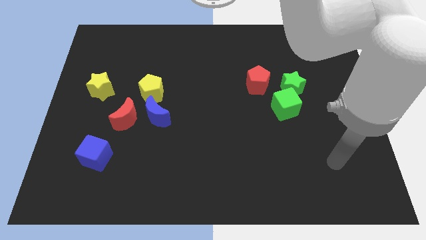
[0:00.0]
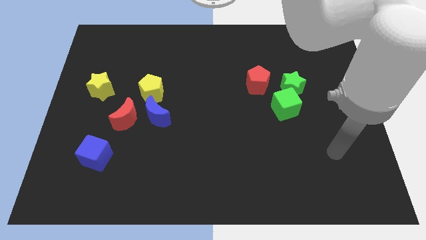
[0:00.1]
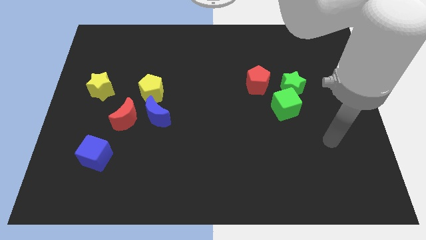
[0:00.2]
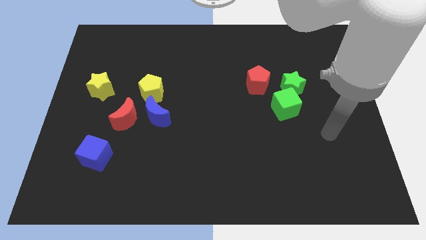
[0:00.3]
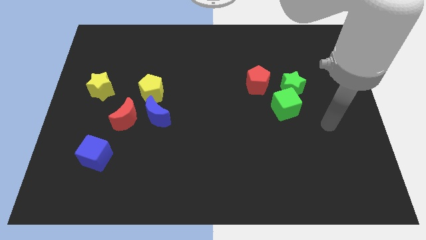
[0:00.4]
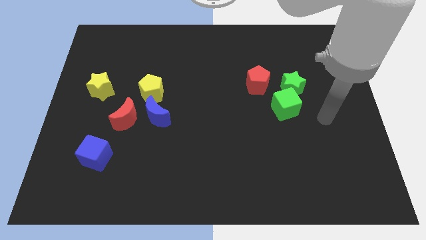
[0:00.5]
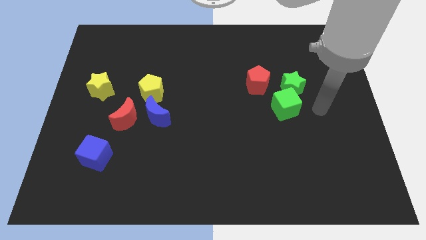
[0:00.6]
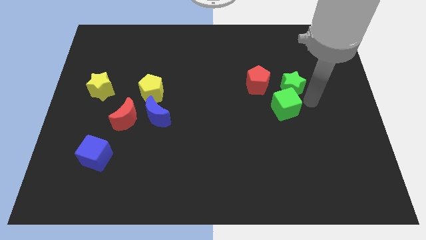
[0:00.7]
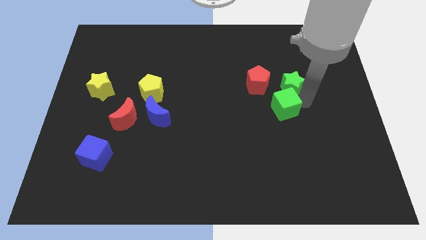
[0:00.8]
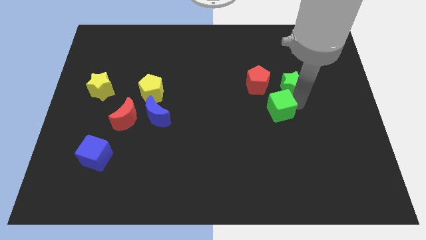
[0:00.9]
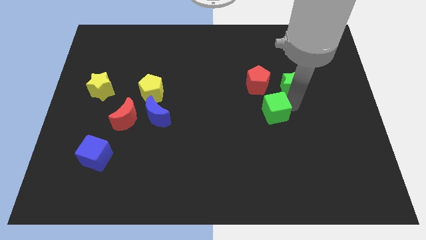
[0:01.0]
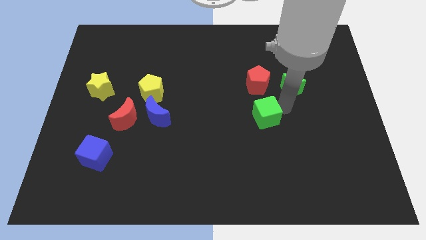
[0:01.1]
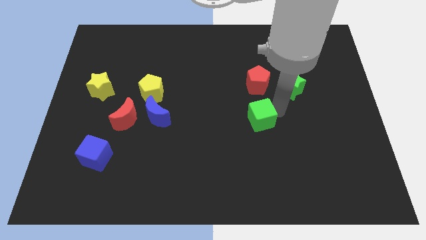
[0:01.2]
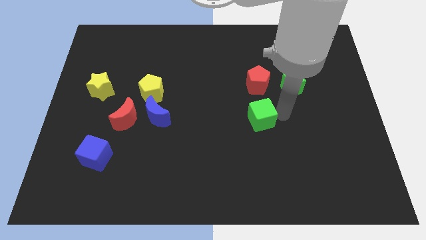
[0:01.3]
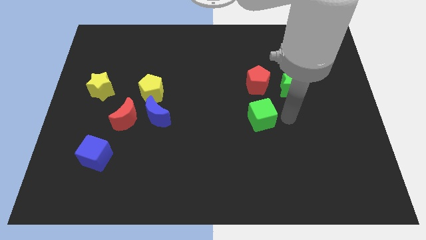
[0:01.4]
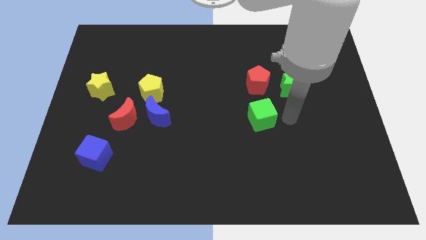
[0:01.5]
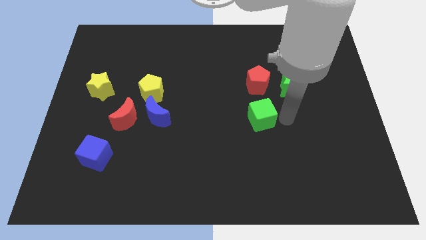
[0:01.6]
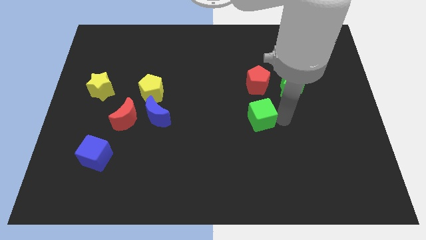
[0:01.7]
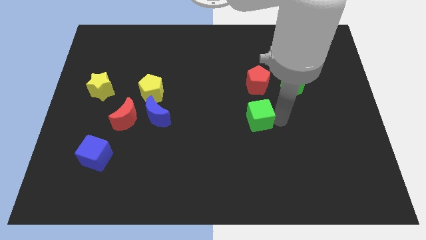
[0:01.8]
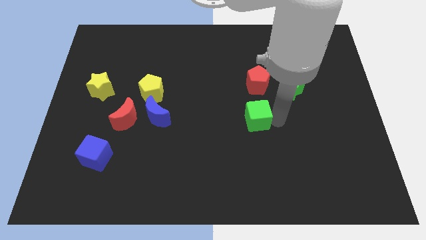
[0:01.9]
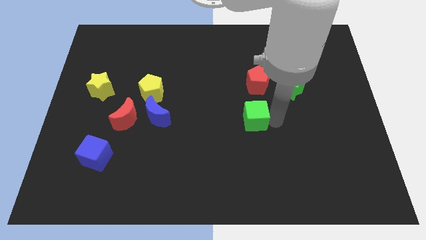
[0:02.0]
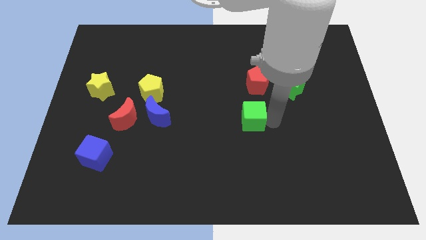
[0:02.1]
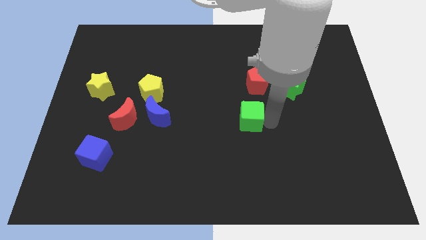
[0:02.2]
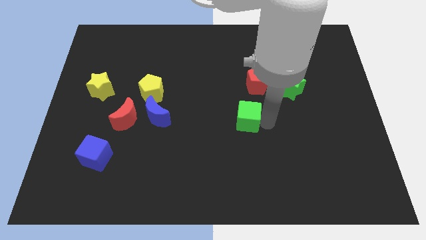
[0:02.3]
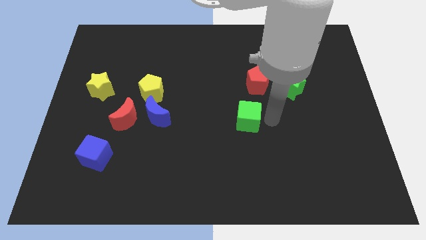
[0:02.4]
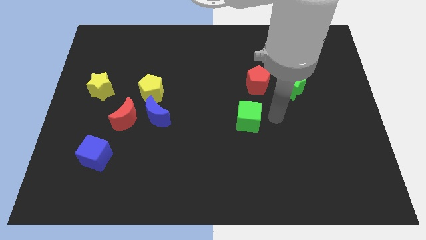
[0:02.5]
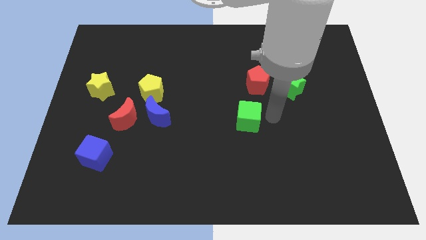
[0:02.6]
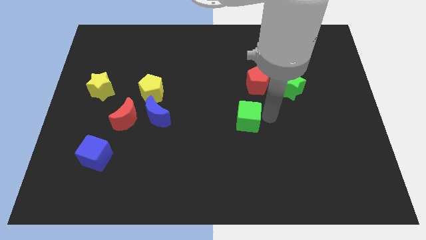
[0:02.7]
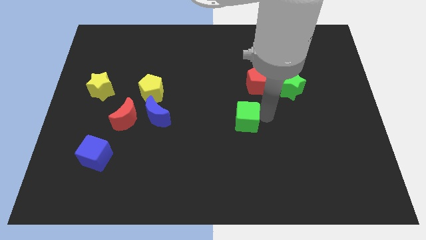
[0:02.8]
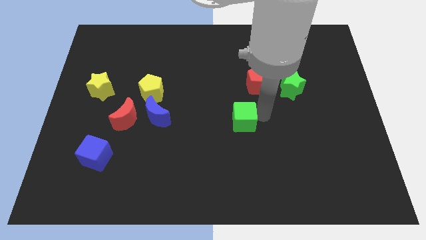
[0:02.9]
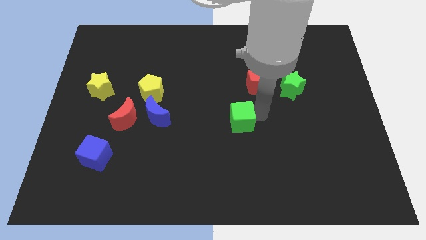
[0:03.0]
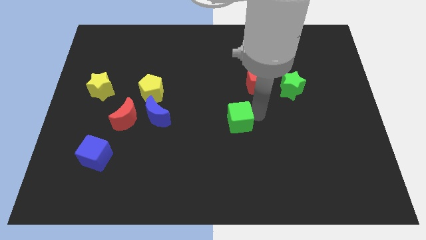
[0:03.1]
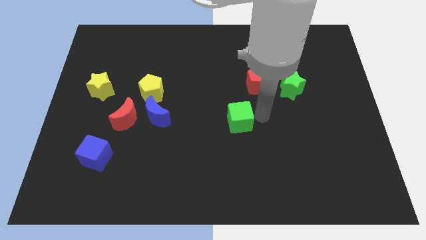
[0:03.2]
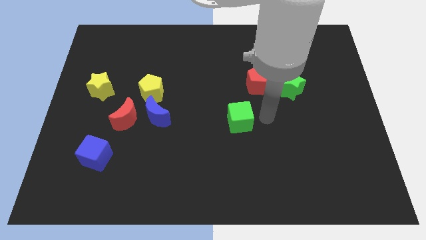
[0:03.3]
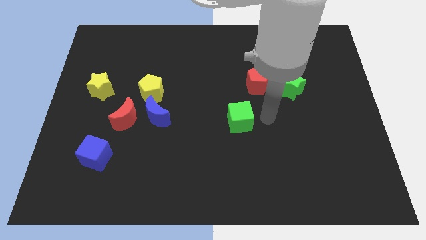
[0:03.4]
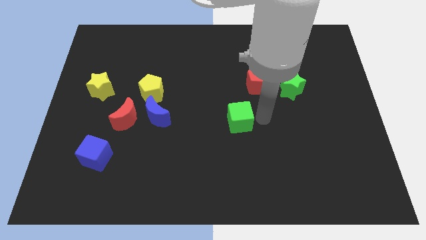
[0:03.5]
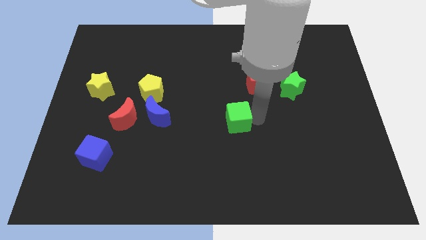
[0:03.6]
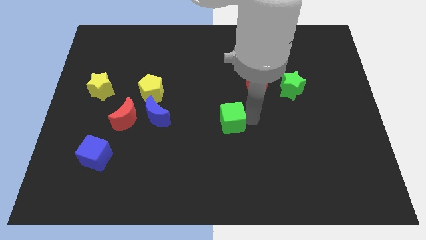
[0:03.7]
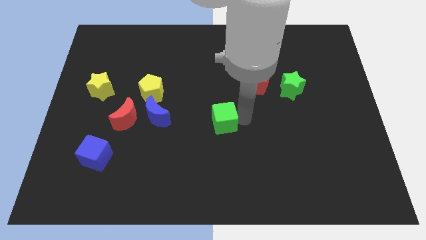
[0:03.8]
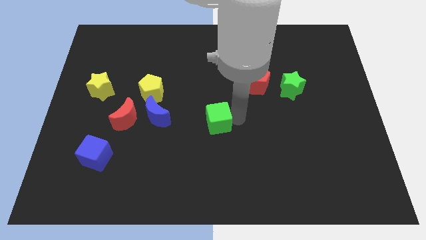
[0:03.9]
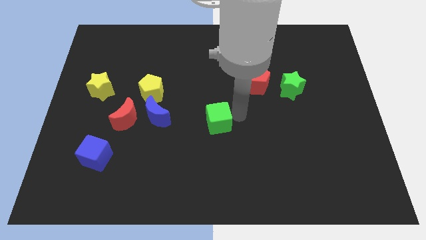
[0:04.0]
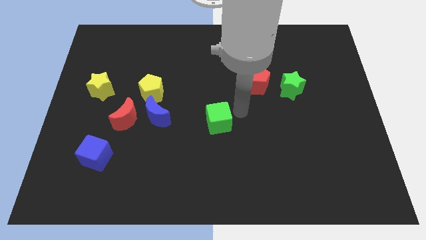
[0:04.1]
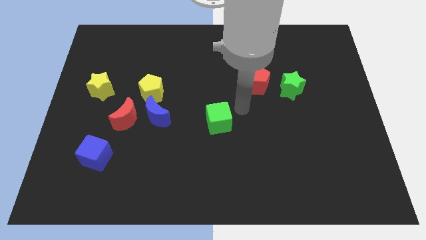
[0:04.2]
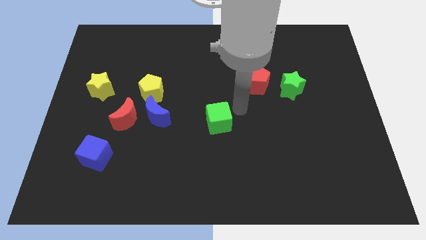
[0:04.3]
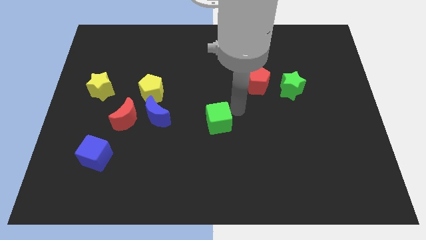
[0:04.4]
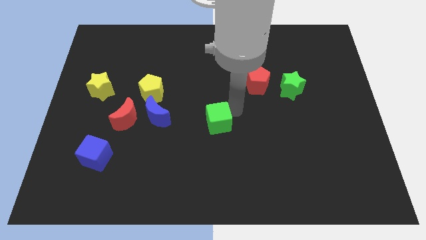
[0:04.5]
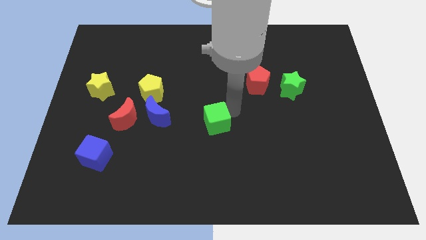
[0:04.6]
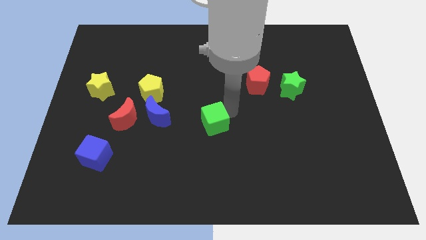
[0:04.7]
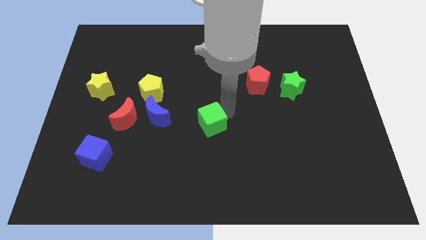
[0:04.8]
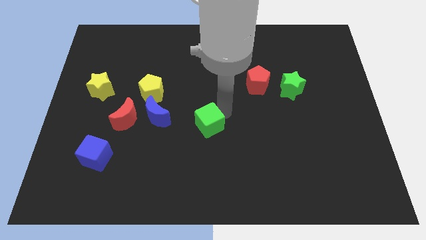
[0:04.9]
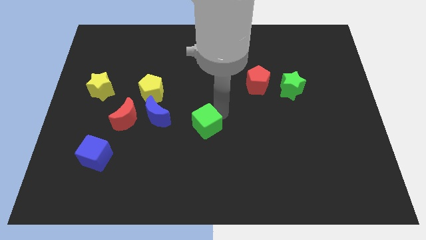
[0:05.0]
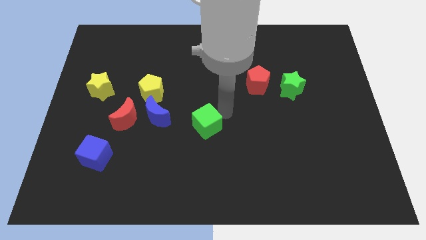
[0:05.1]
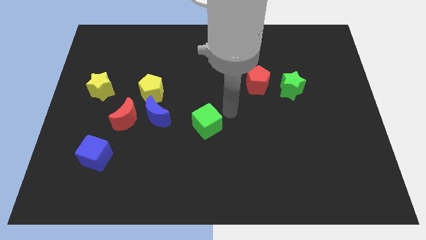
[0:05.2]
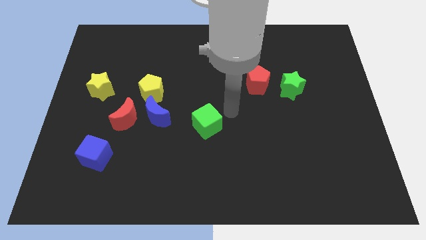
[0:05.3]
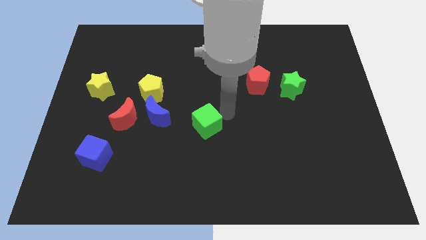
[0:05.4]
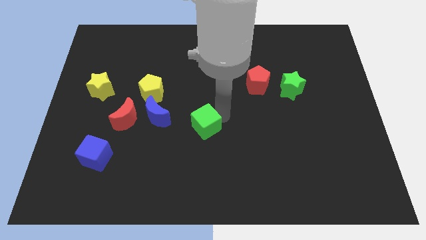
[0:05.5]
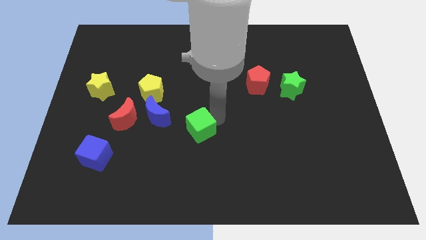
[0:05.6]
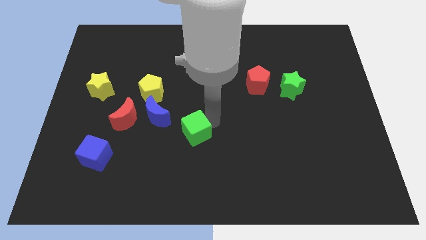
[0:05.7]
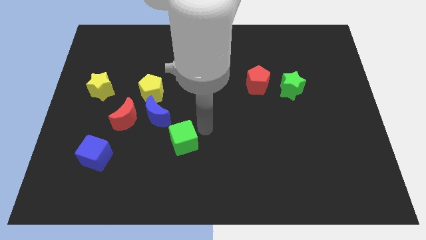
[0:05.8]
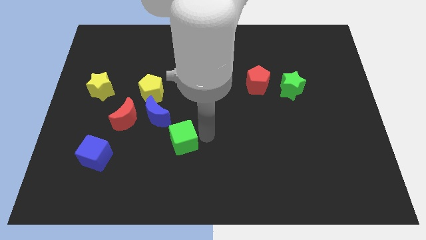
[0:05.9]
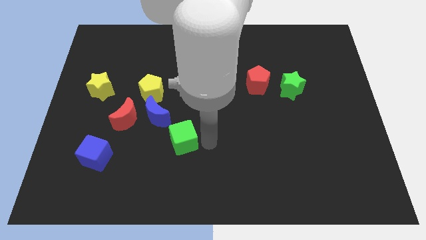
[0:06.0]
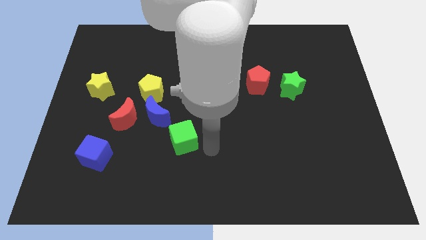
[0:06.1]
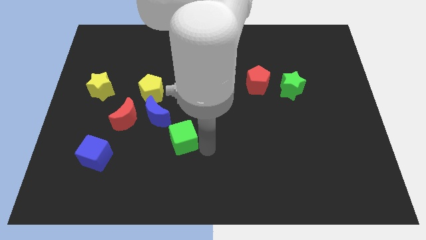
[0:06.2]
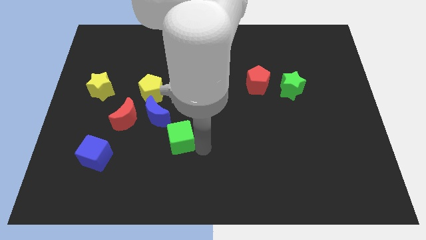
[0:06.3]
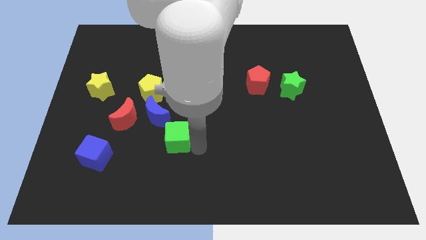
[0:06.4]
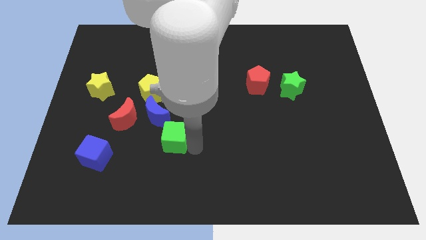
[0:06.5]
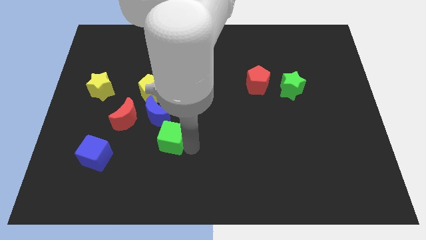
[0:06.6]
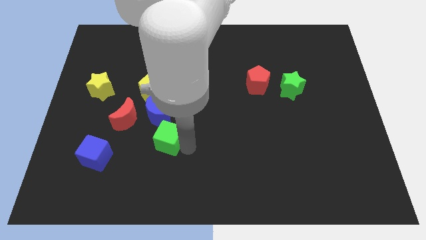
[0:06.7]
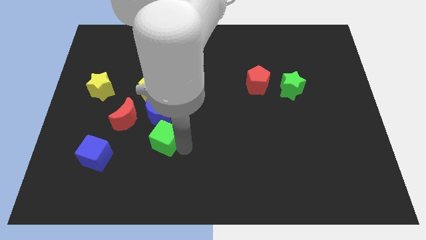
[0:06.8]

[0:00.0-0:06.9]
move the green cube to the bottom side of the yellow pentagon

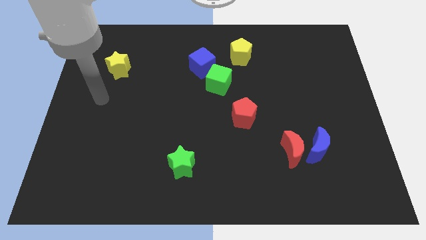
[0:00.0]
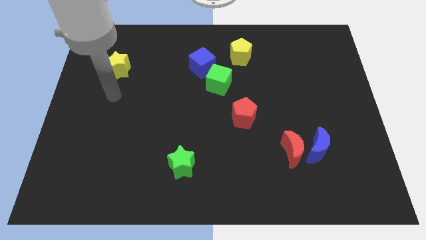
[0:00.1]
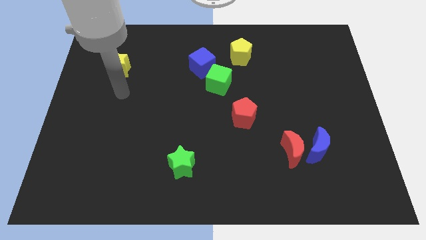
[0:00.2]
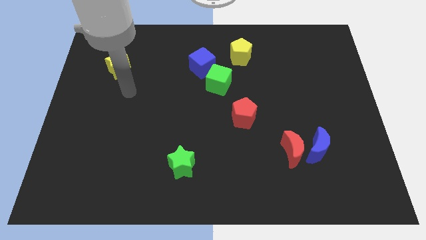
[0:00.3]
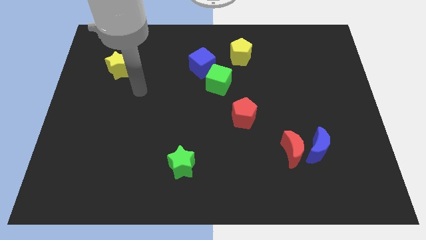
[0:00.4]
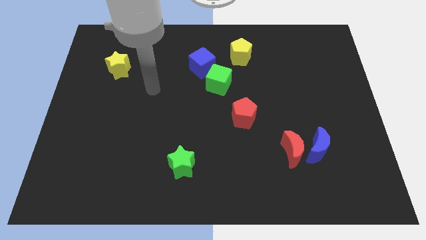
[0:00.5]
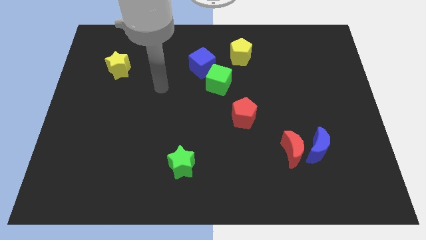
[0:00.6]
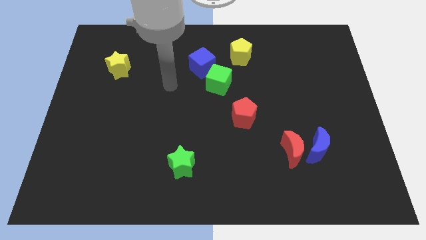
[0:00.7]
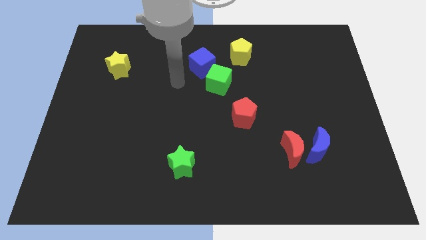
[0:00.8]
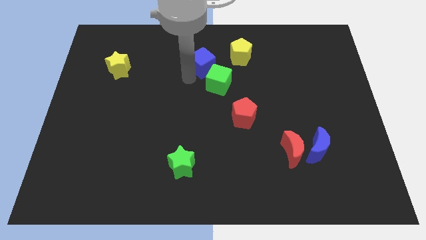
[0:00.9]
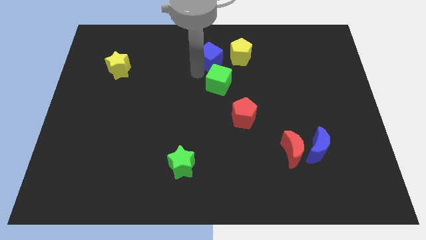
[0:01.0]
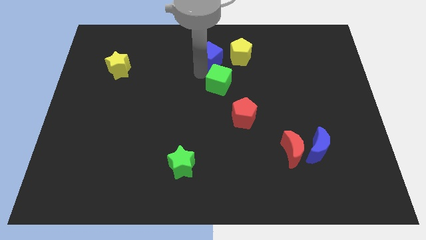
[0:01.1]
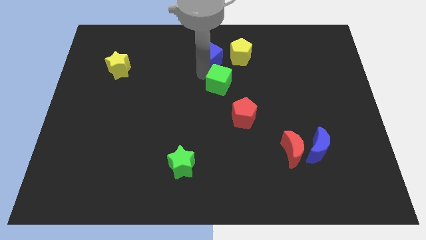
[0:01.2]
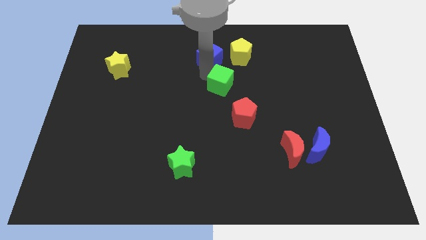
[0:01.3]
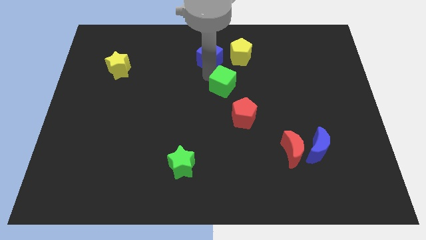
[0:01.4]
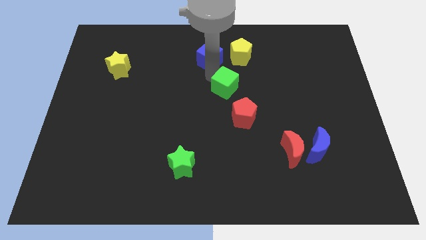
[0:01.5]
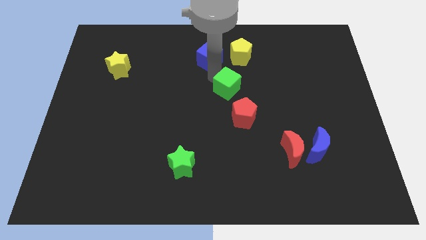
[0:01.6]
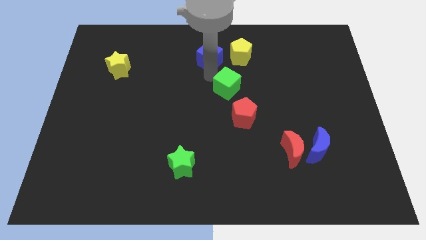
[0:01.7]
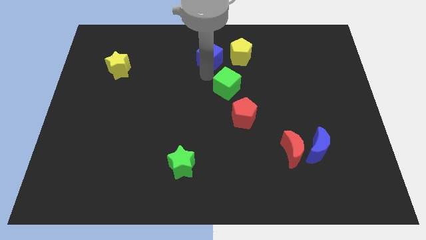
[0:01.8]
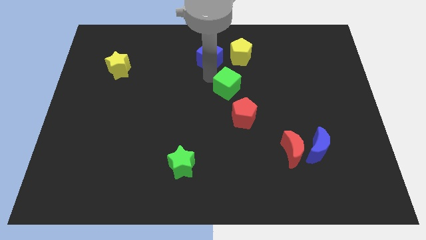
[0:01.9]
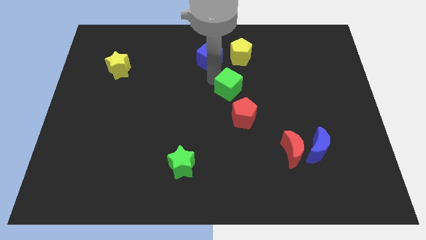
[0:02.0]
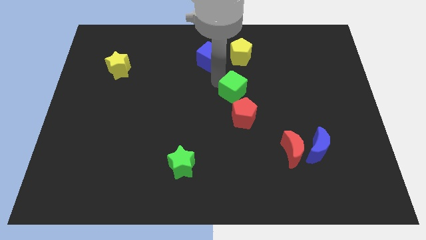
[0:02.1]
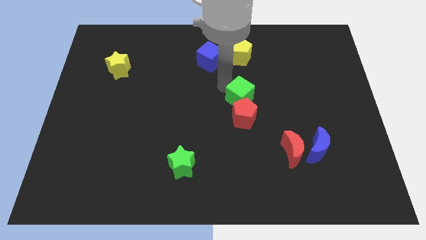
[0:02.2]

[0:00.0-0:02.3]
slide the green cube to the top right of the red pentagon
